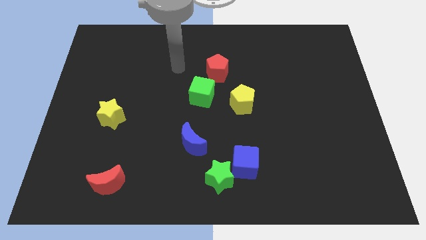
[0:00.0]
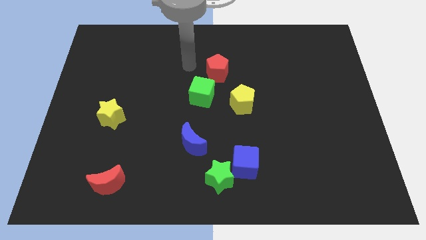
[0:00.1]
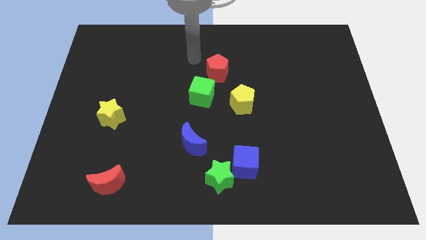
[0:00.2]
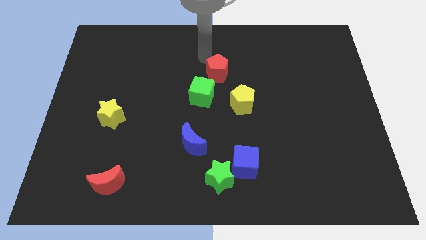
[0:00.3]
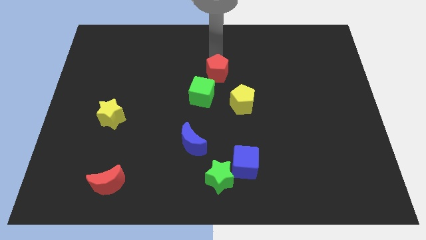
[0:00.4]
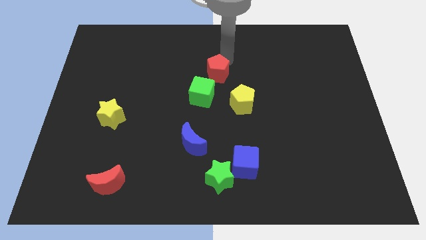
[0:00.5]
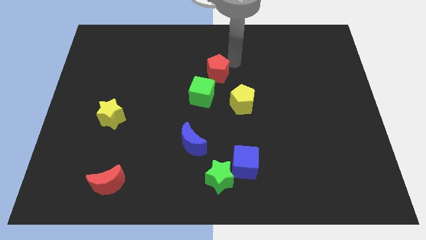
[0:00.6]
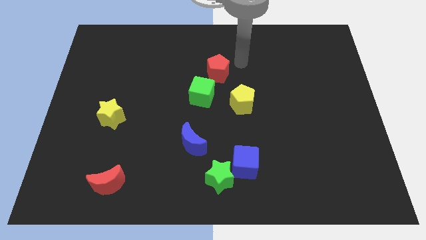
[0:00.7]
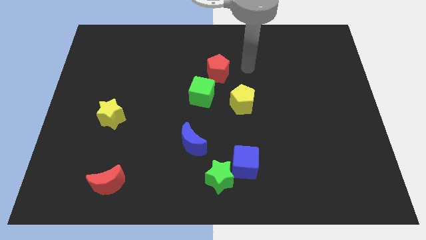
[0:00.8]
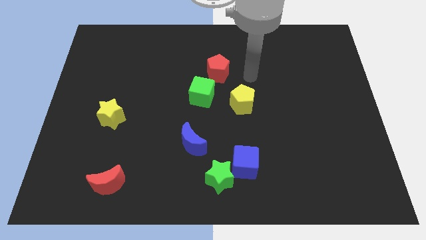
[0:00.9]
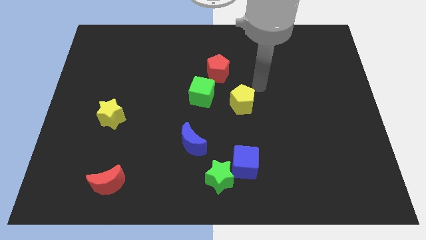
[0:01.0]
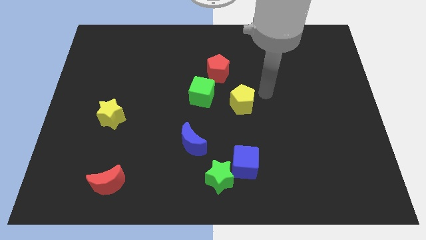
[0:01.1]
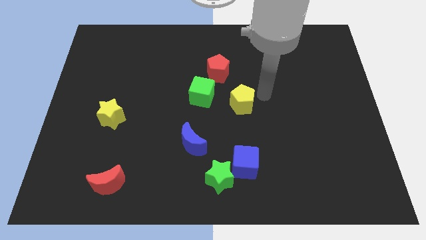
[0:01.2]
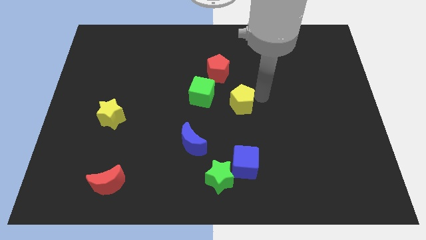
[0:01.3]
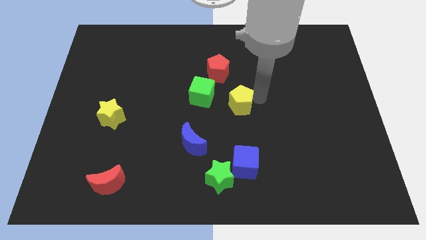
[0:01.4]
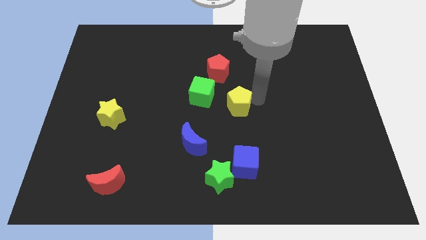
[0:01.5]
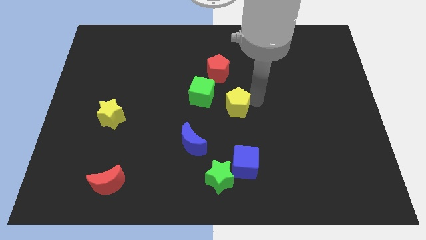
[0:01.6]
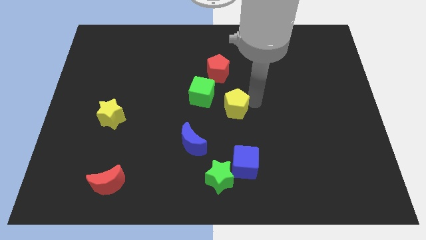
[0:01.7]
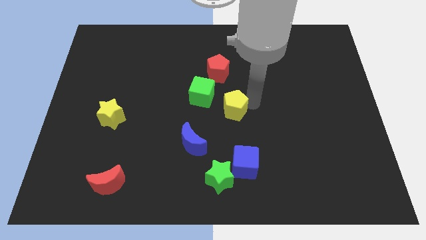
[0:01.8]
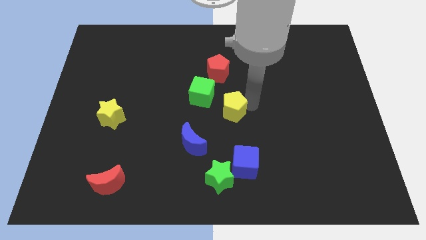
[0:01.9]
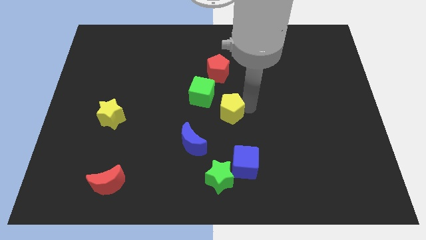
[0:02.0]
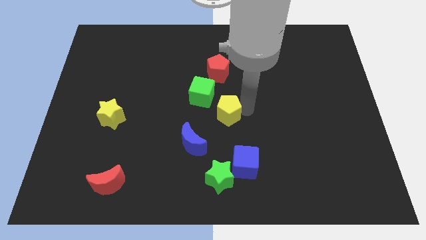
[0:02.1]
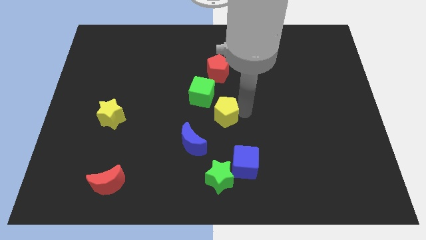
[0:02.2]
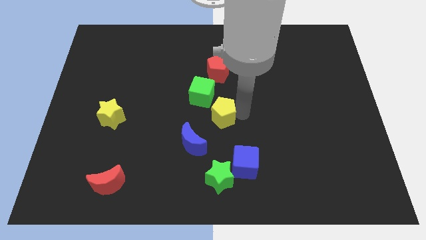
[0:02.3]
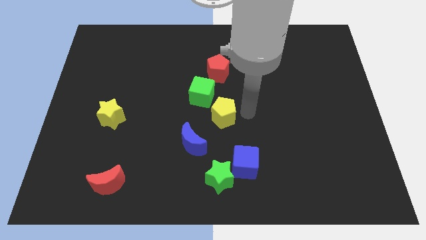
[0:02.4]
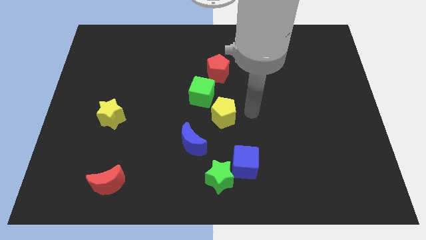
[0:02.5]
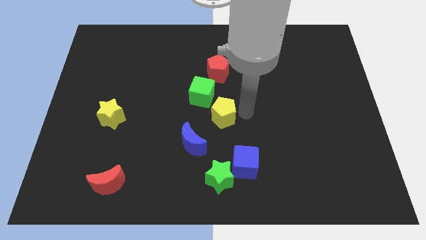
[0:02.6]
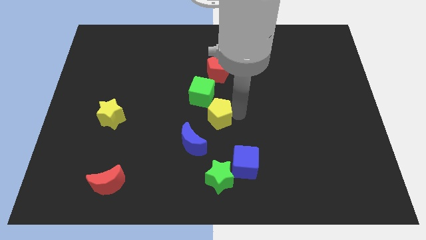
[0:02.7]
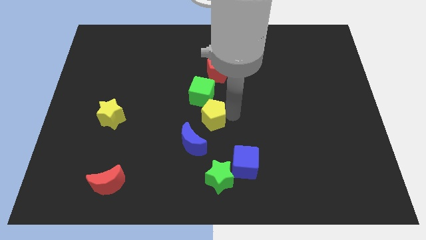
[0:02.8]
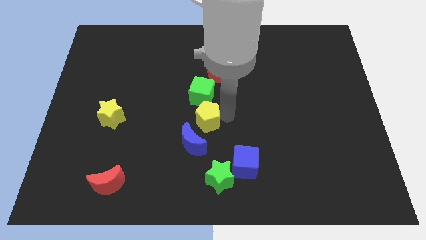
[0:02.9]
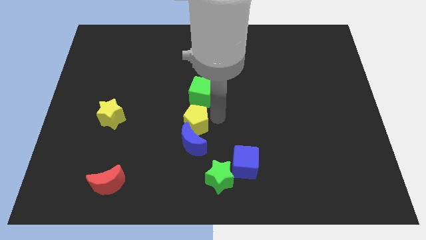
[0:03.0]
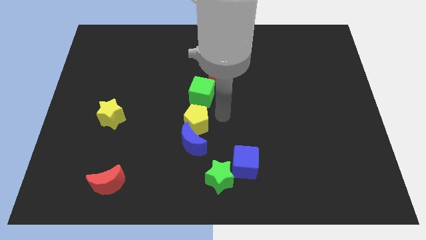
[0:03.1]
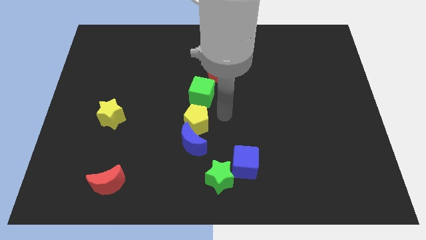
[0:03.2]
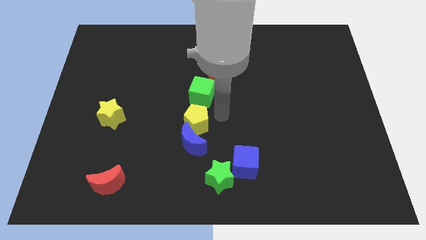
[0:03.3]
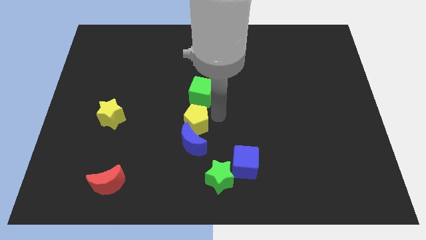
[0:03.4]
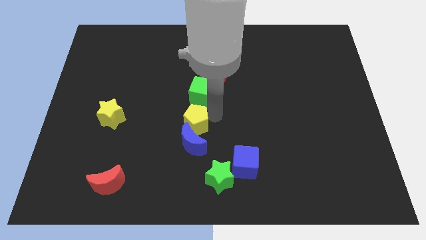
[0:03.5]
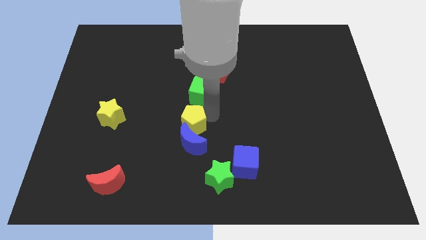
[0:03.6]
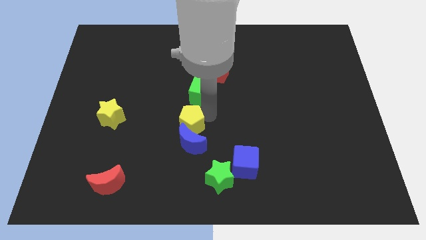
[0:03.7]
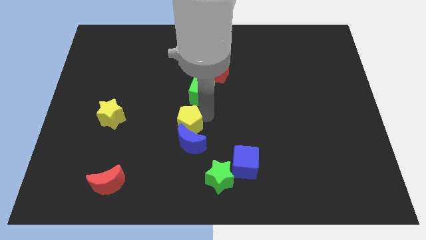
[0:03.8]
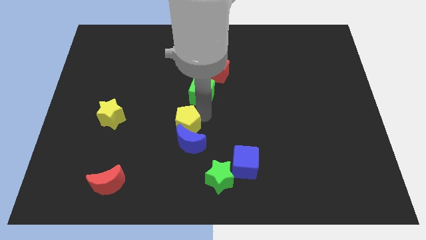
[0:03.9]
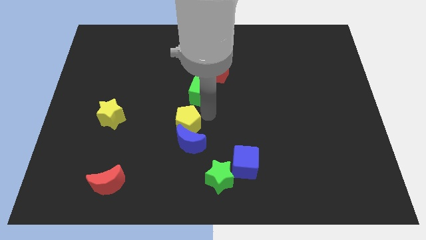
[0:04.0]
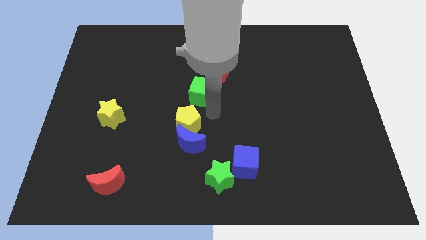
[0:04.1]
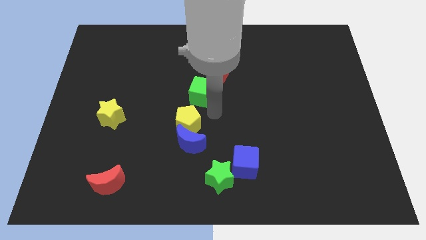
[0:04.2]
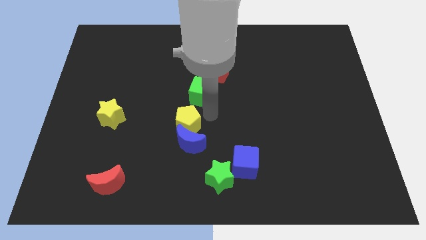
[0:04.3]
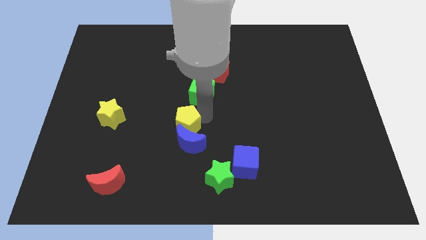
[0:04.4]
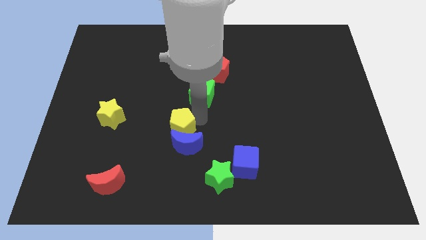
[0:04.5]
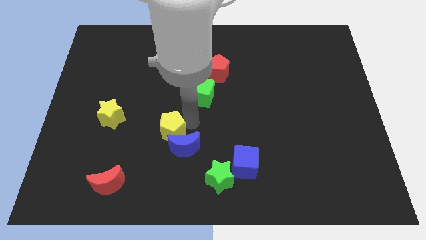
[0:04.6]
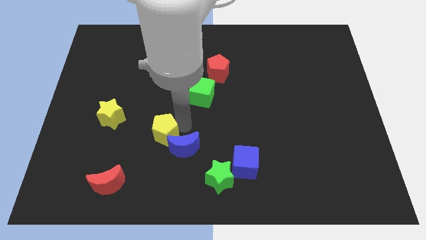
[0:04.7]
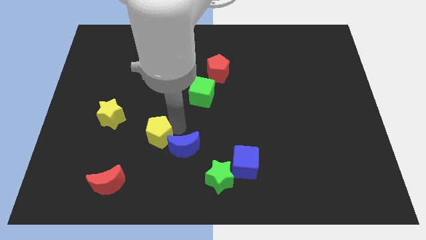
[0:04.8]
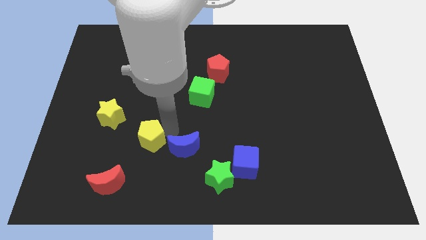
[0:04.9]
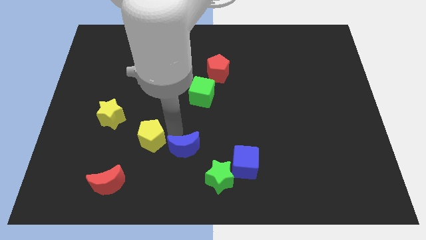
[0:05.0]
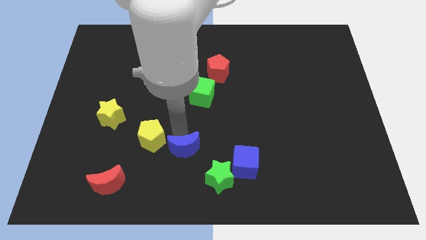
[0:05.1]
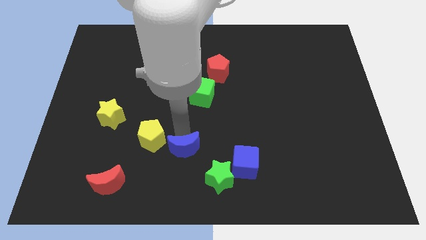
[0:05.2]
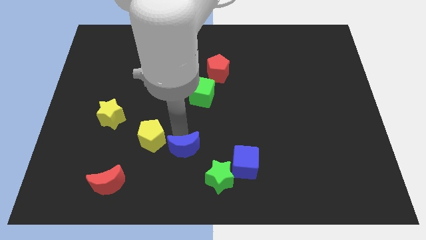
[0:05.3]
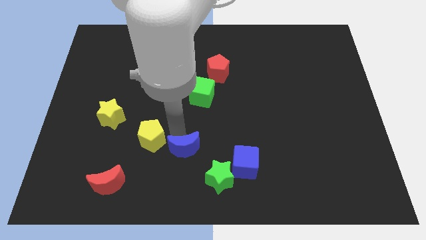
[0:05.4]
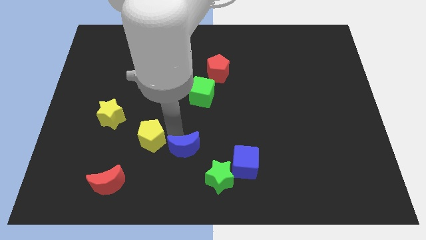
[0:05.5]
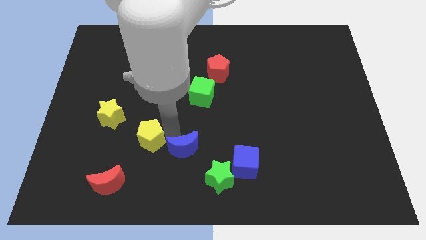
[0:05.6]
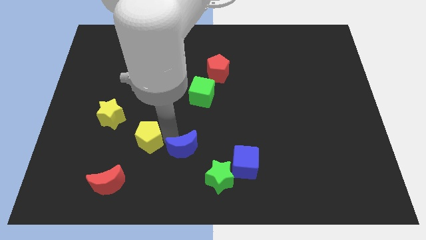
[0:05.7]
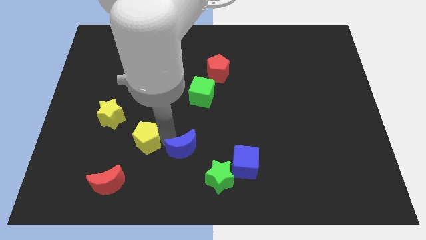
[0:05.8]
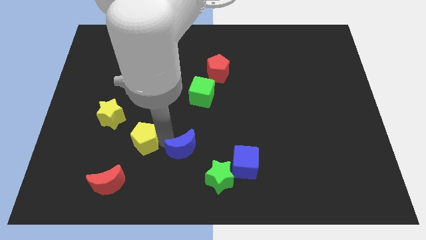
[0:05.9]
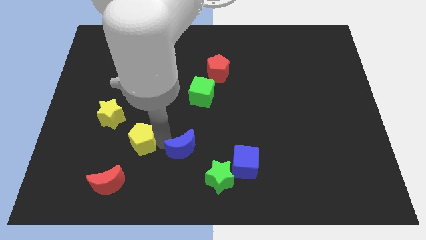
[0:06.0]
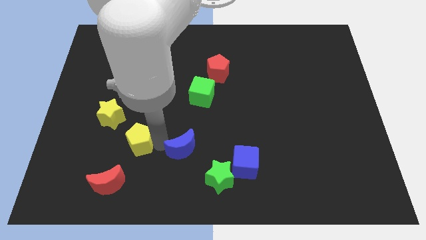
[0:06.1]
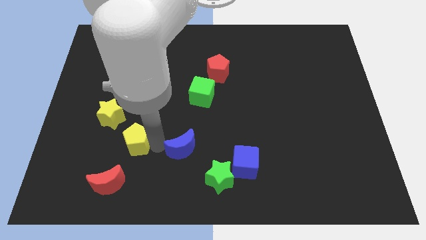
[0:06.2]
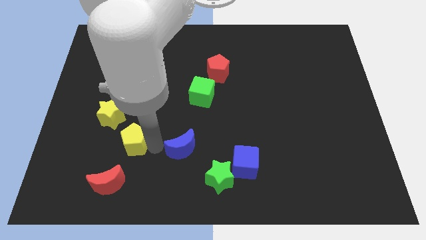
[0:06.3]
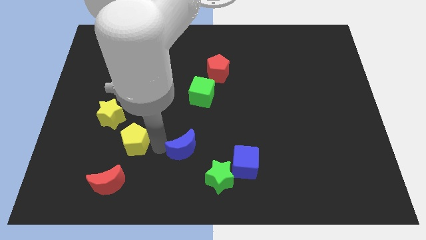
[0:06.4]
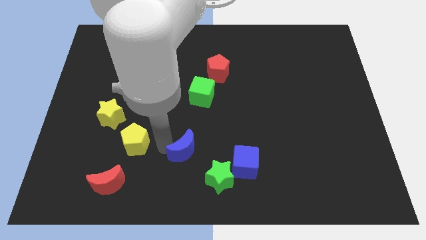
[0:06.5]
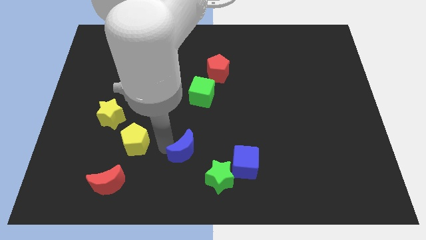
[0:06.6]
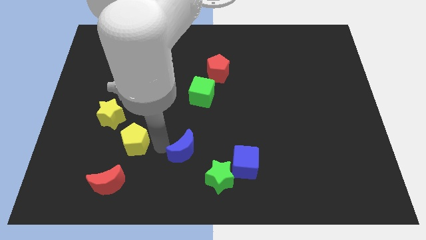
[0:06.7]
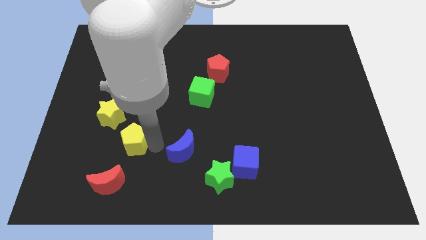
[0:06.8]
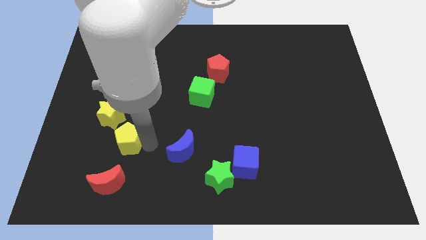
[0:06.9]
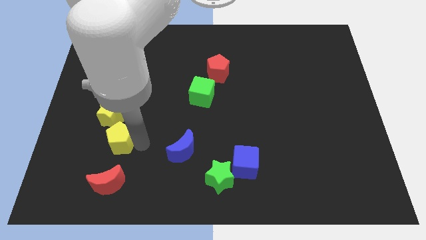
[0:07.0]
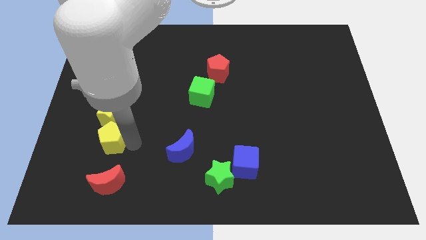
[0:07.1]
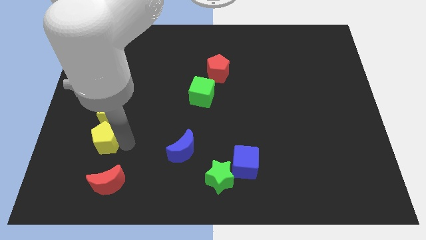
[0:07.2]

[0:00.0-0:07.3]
put the yellow pentagon diagonally down and to the left of the yellow star
